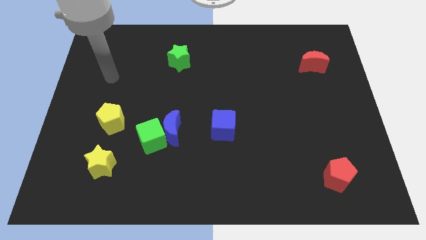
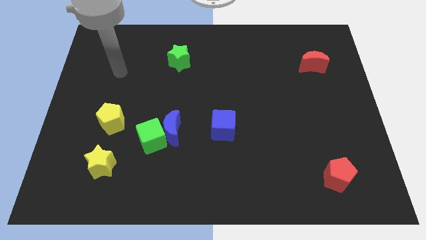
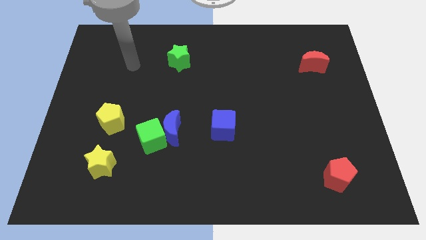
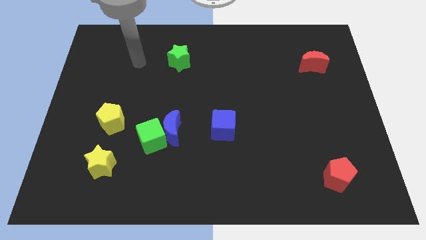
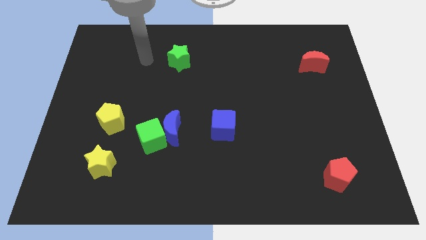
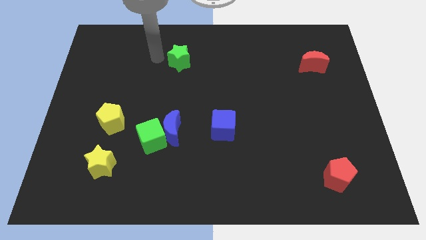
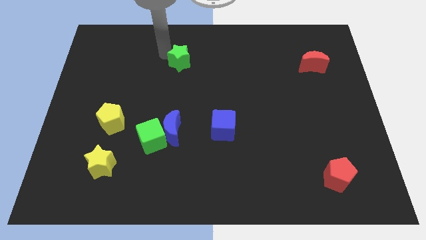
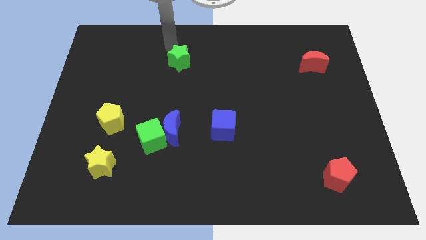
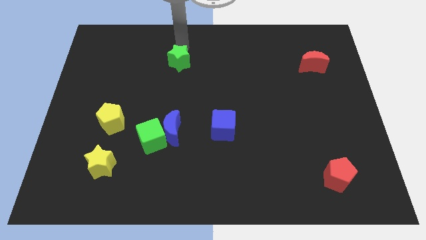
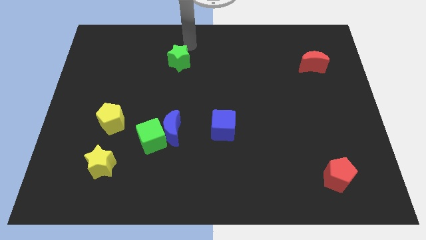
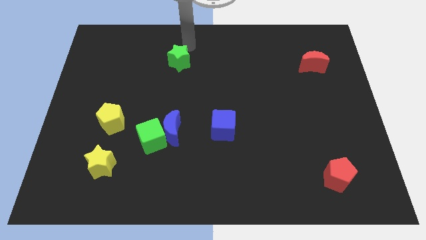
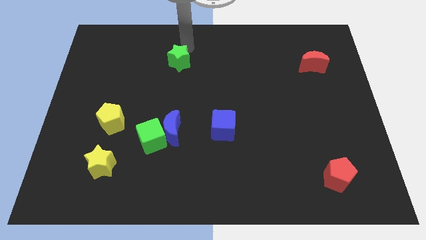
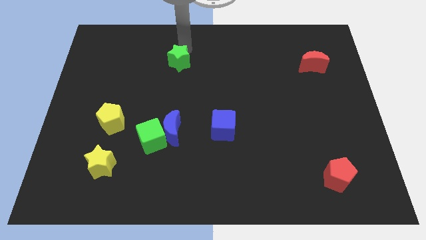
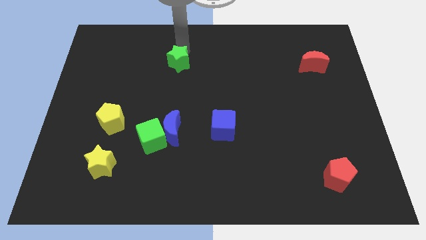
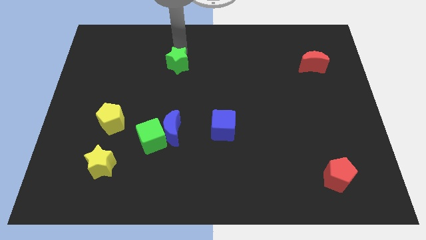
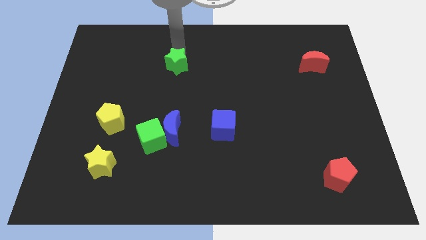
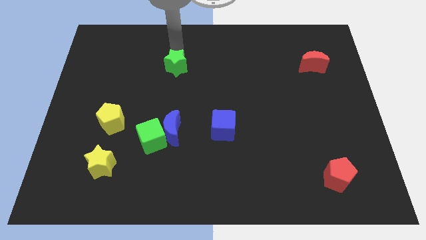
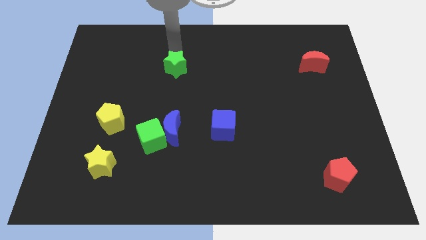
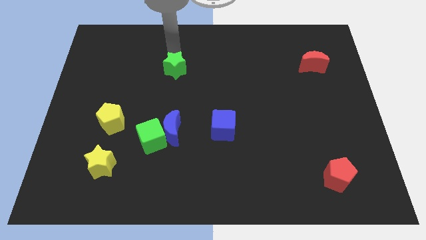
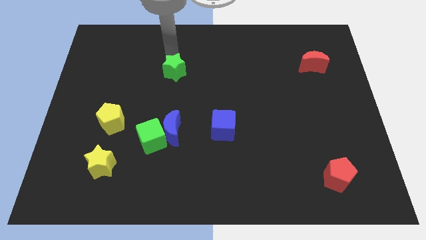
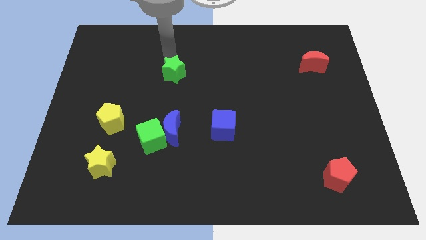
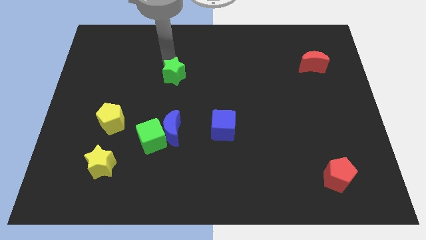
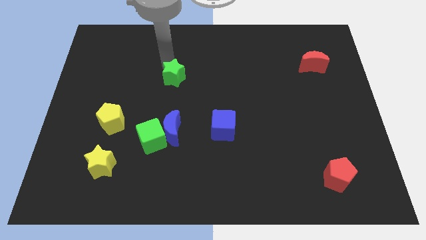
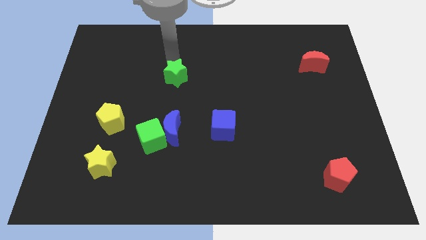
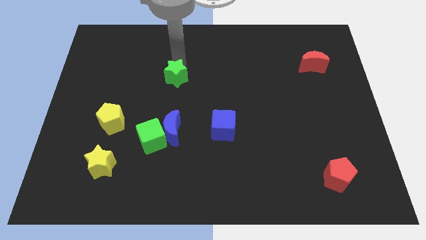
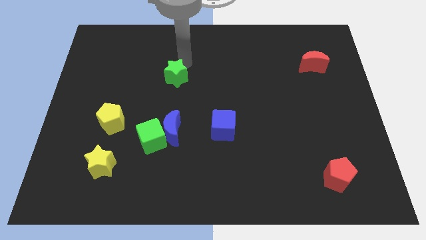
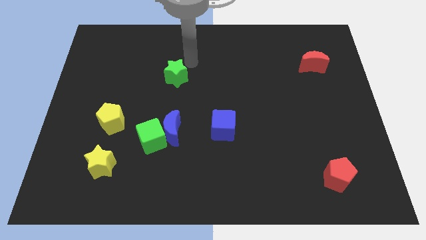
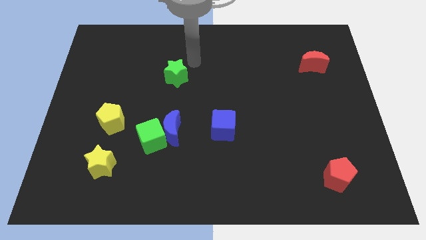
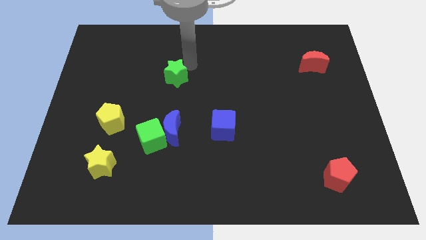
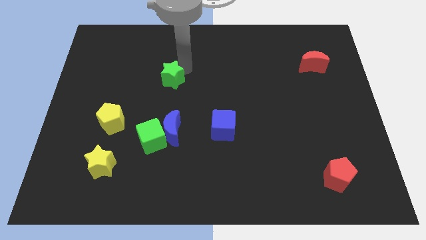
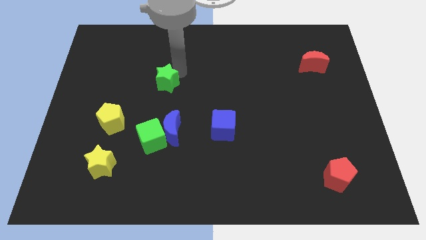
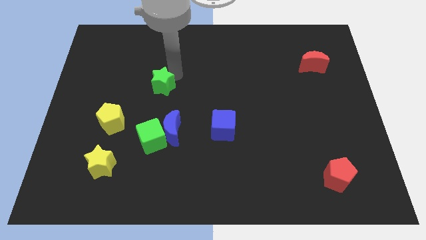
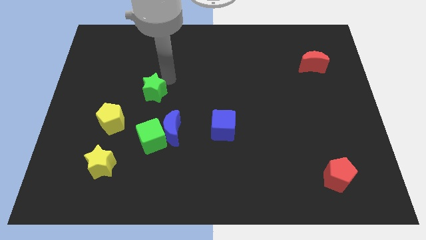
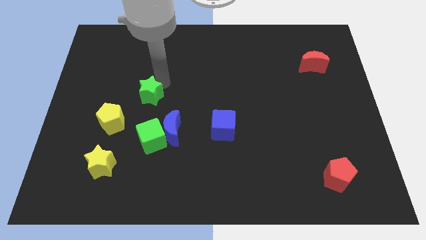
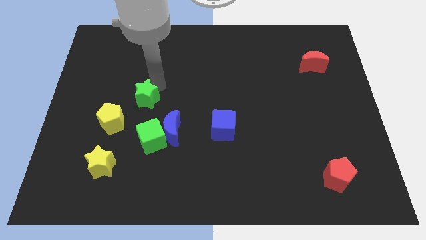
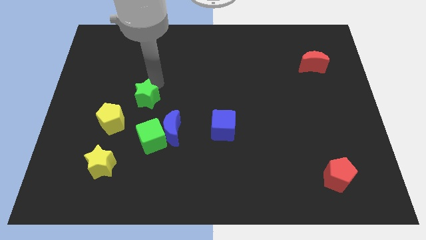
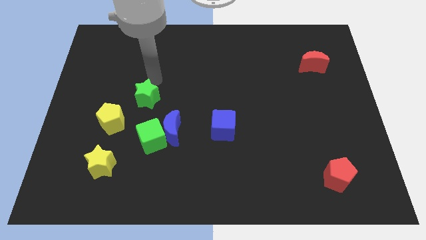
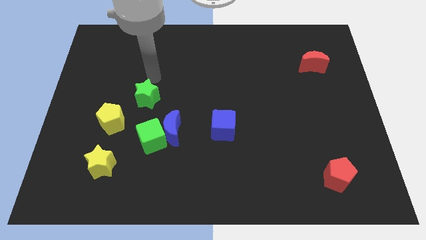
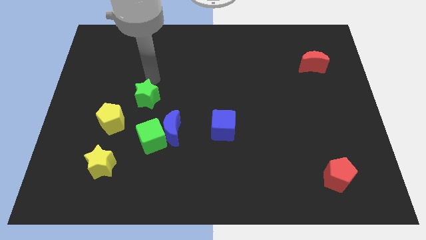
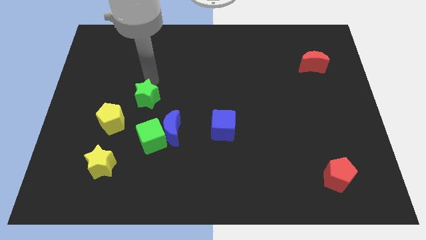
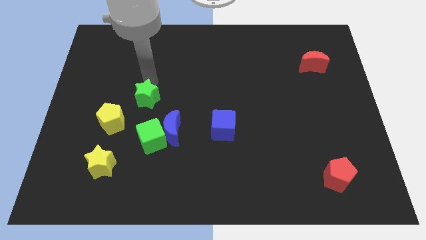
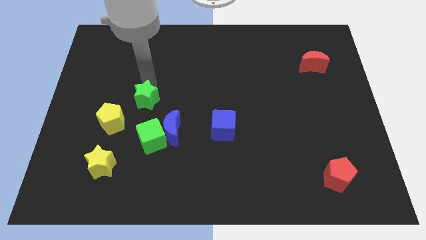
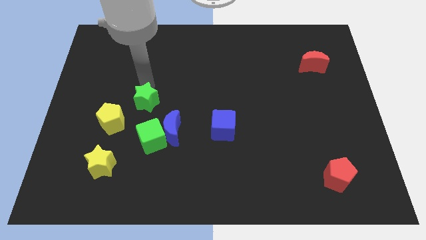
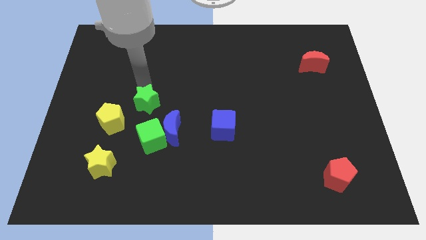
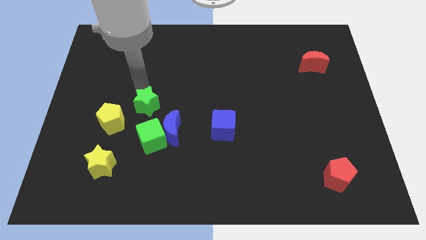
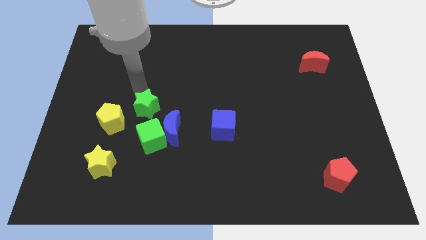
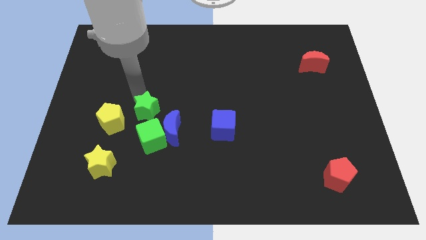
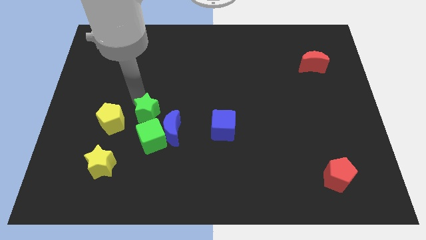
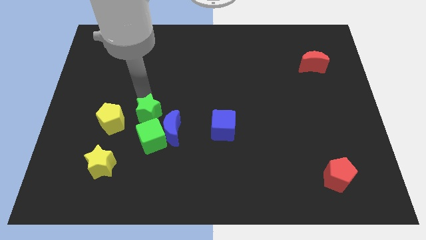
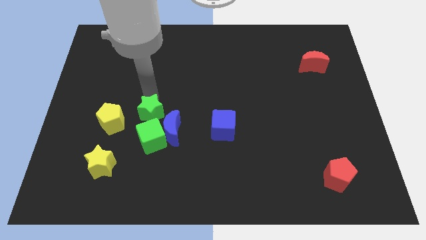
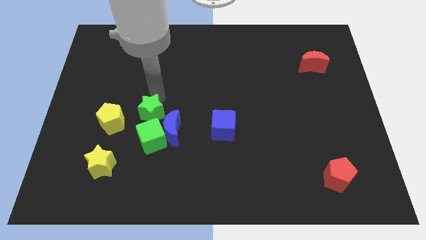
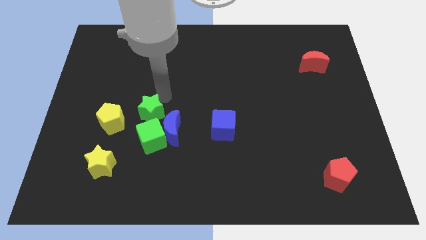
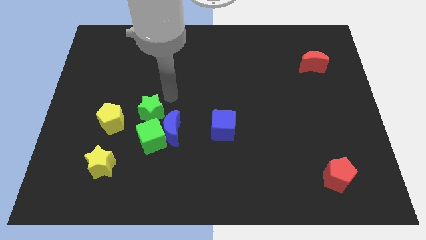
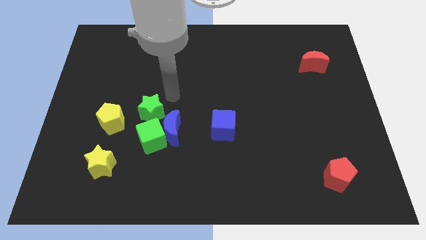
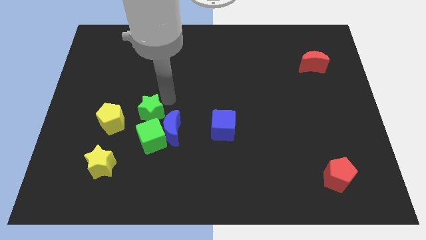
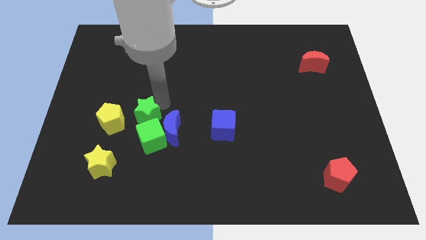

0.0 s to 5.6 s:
move the green star just left of the blue moon

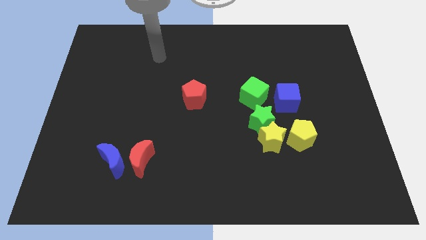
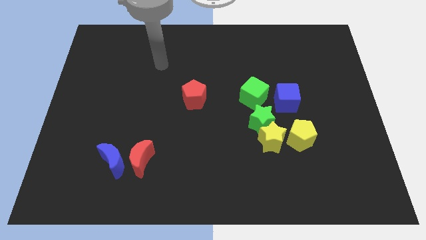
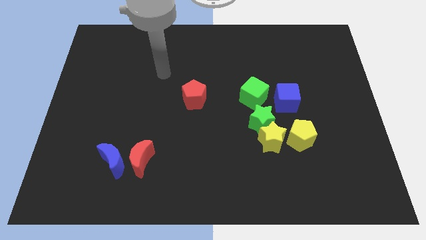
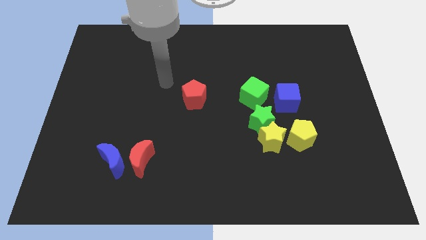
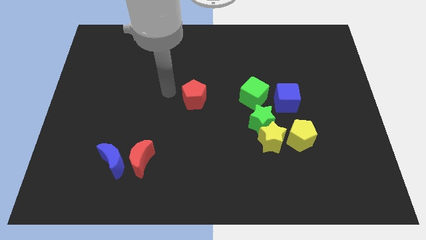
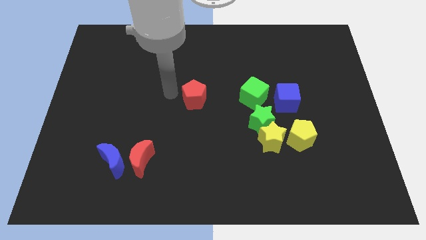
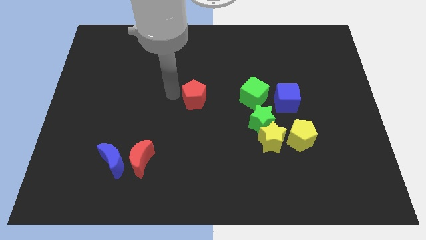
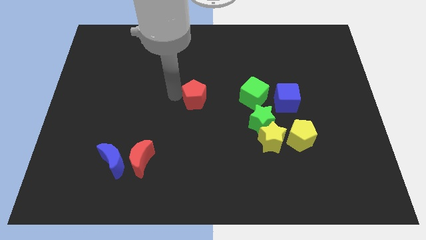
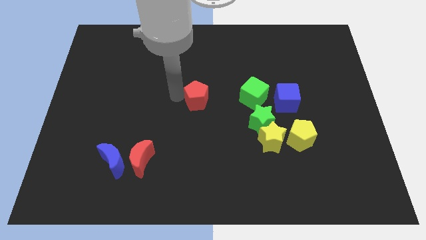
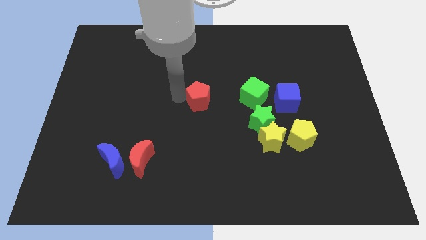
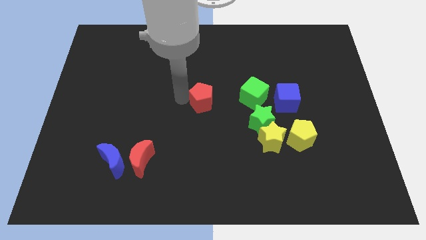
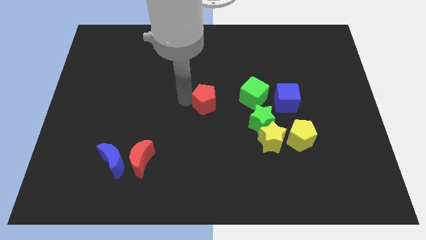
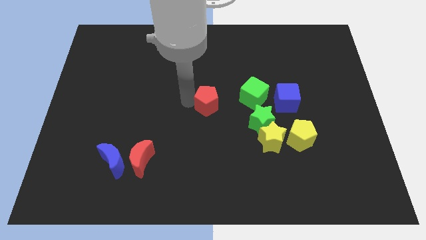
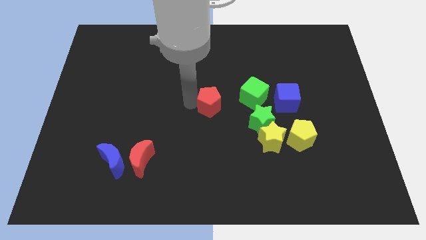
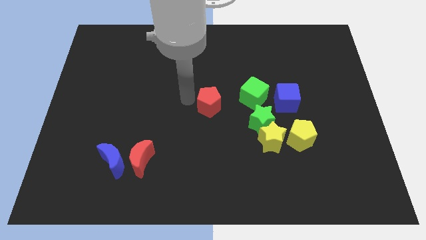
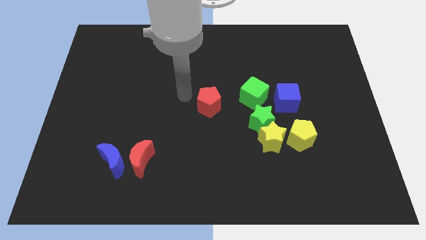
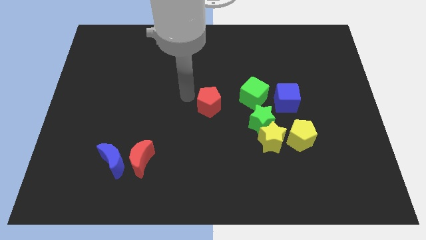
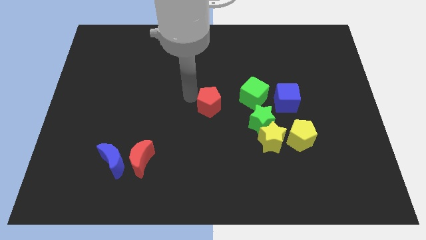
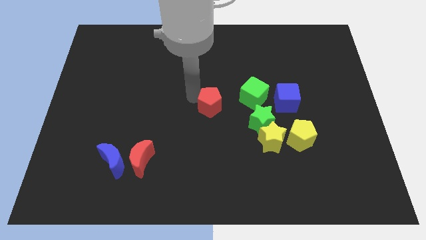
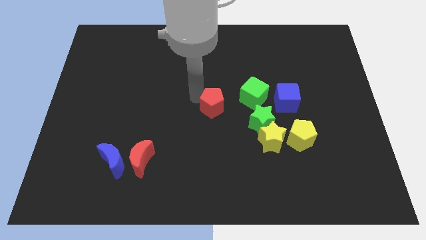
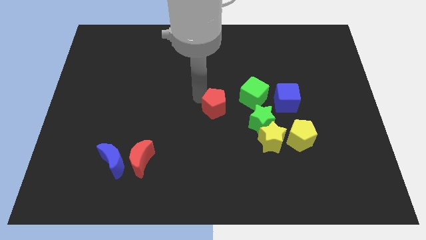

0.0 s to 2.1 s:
slide the red pentagon to the bottom left of the green cube
